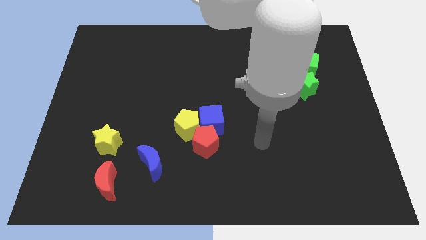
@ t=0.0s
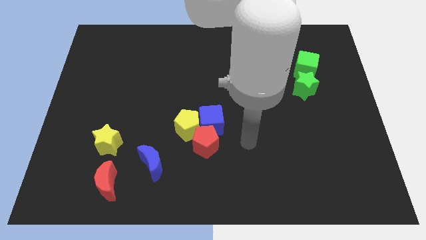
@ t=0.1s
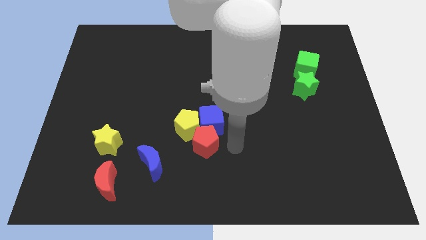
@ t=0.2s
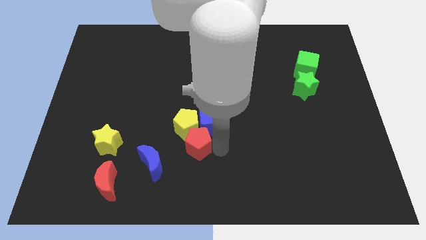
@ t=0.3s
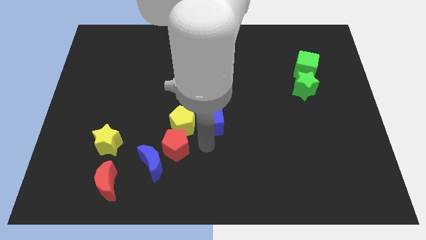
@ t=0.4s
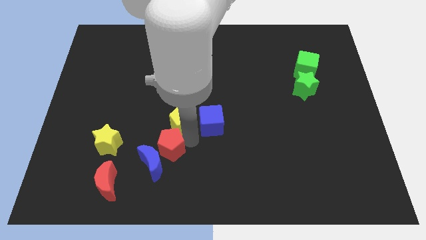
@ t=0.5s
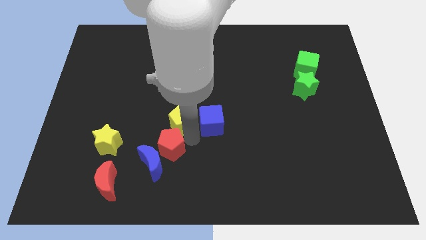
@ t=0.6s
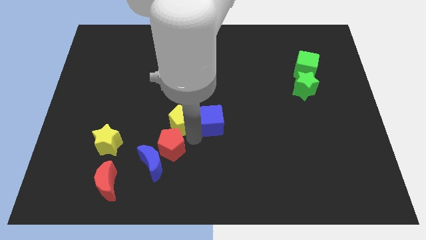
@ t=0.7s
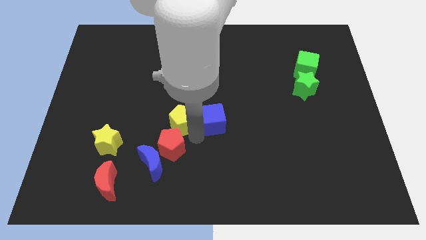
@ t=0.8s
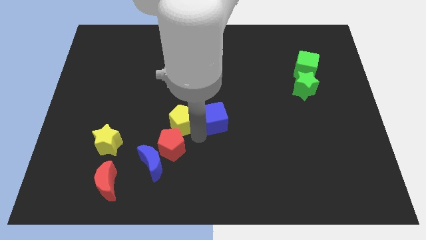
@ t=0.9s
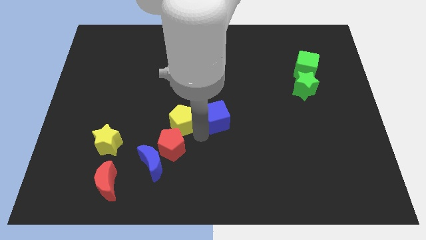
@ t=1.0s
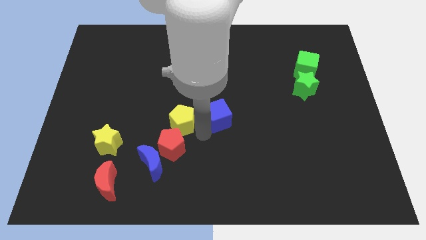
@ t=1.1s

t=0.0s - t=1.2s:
separate the blue cube from the yellow pentagon and red pentagon

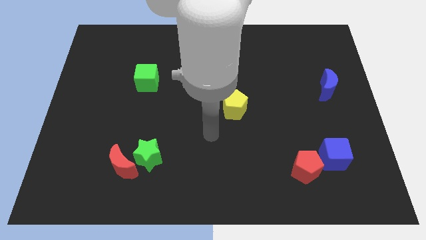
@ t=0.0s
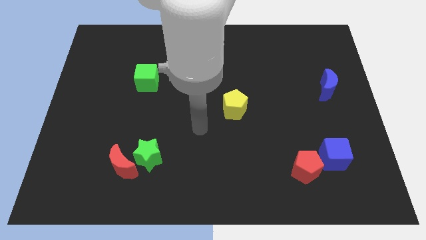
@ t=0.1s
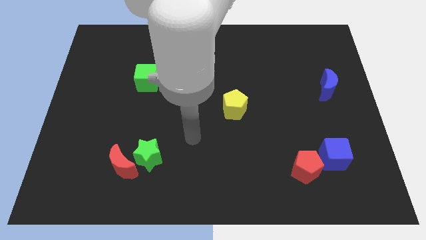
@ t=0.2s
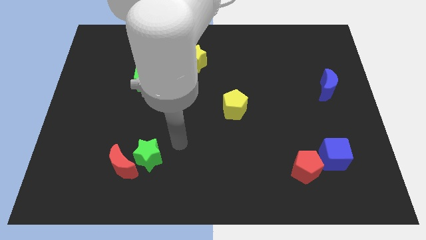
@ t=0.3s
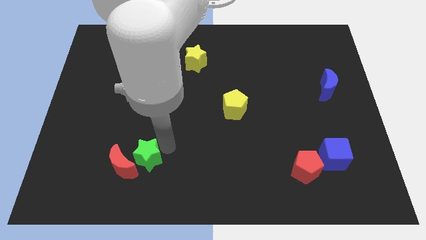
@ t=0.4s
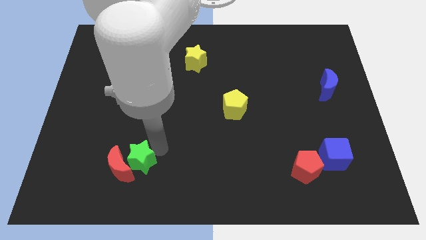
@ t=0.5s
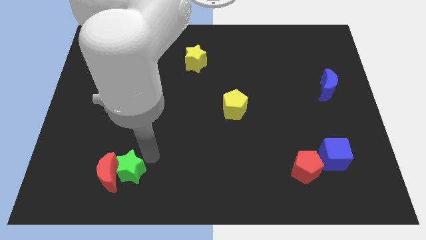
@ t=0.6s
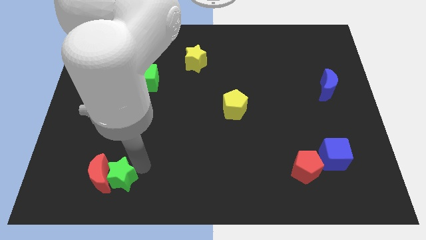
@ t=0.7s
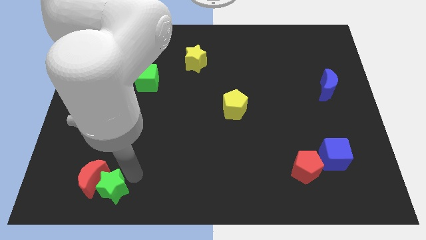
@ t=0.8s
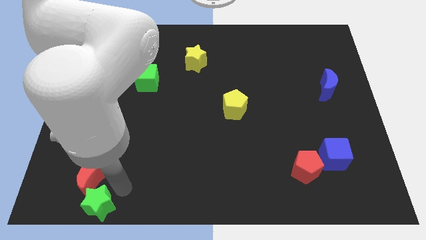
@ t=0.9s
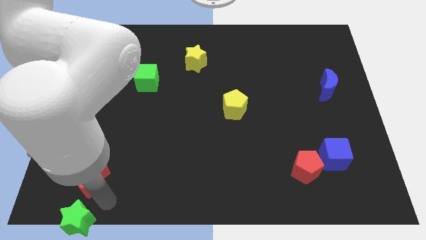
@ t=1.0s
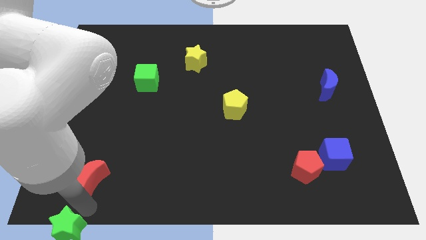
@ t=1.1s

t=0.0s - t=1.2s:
move the red moon away from the green star

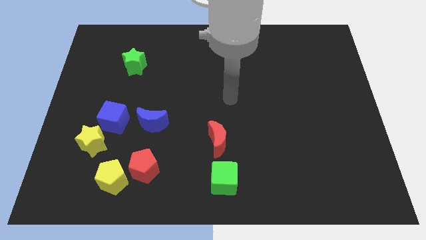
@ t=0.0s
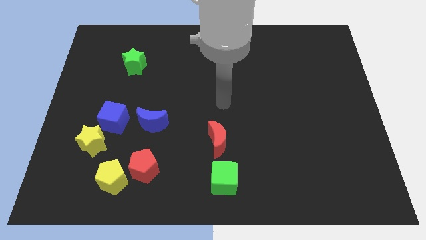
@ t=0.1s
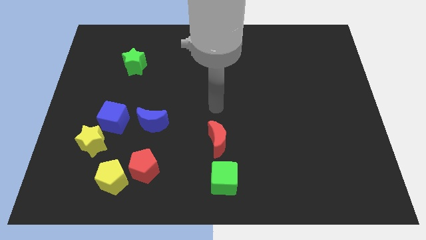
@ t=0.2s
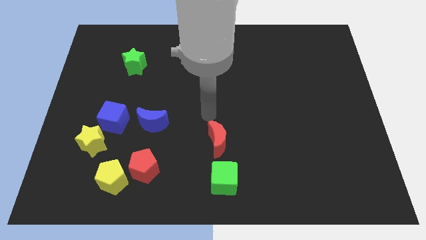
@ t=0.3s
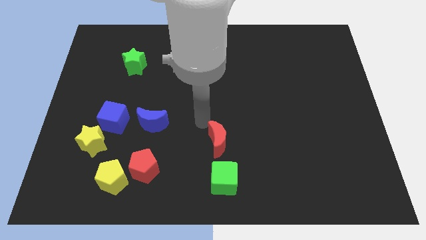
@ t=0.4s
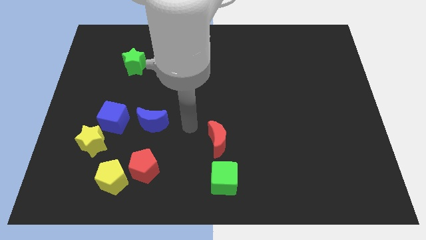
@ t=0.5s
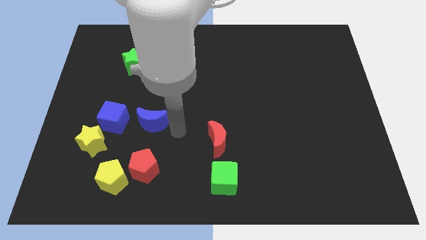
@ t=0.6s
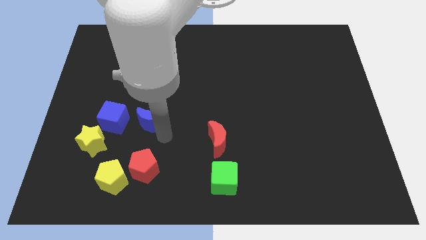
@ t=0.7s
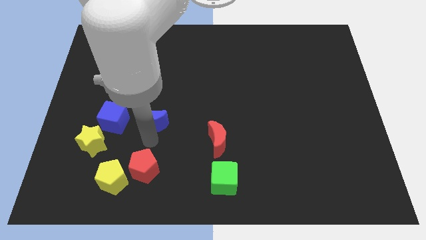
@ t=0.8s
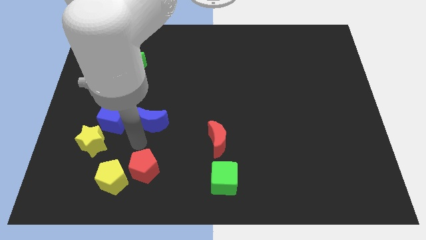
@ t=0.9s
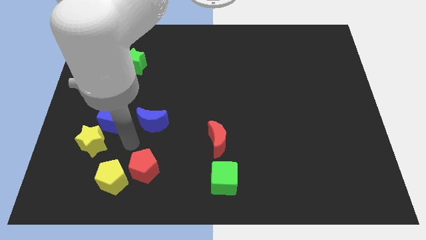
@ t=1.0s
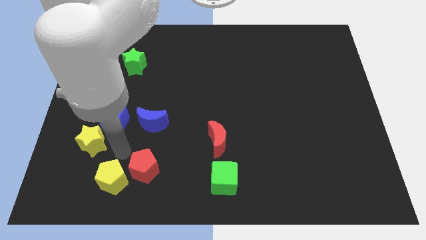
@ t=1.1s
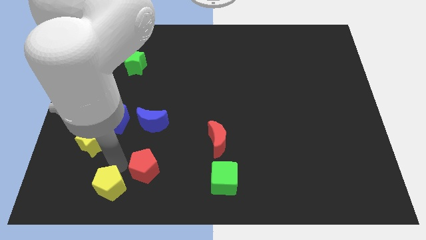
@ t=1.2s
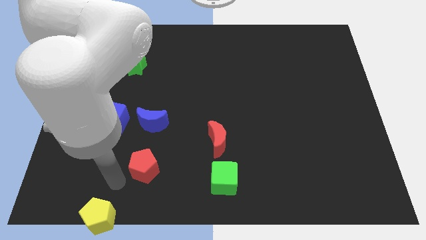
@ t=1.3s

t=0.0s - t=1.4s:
pull the red pentagon apart from the yellow pentagon

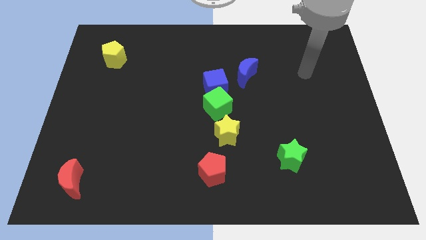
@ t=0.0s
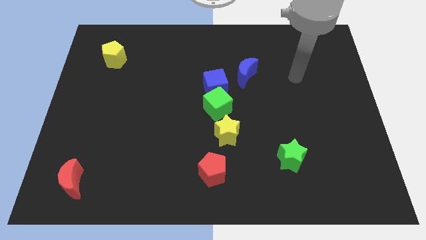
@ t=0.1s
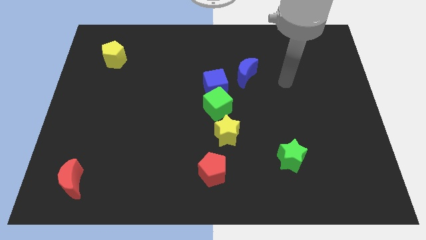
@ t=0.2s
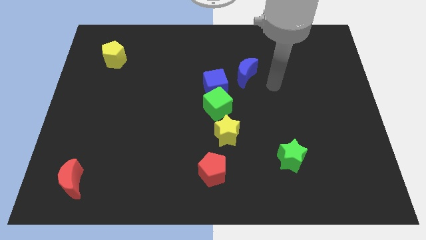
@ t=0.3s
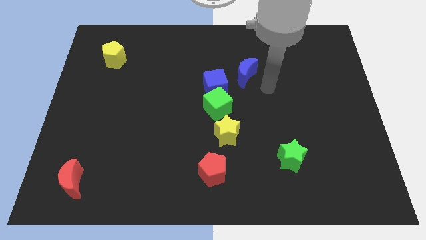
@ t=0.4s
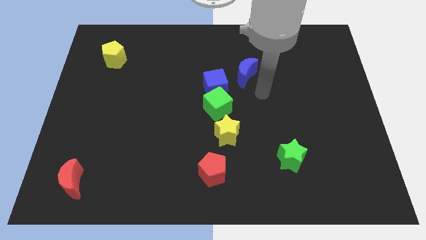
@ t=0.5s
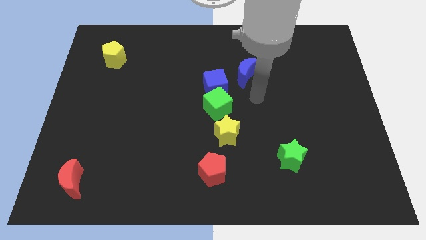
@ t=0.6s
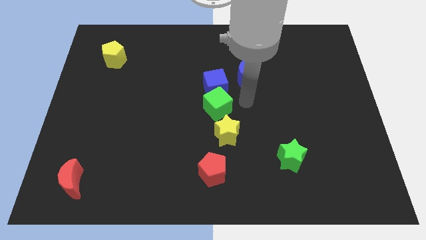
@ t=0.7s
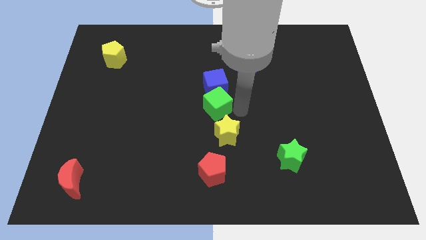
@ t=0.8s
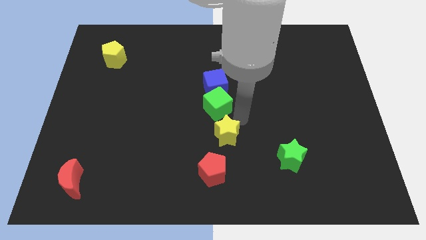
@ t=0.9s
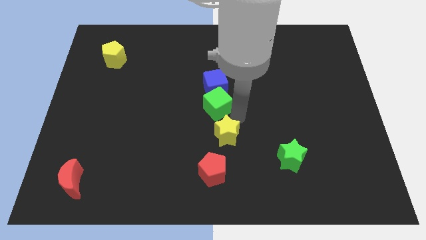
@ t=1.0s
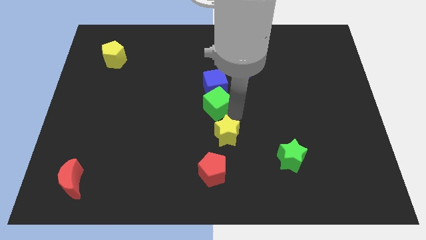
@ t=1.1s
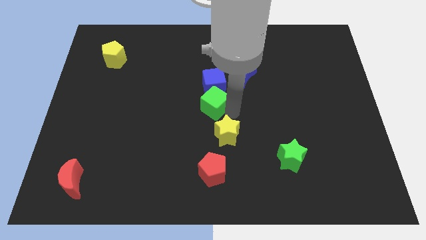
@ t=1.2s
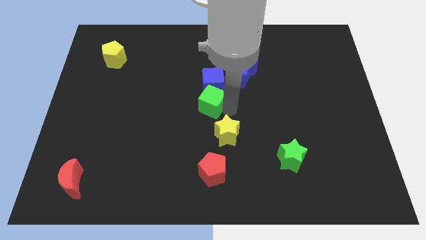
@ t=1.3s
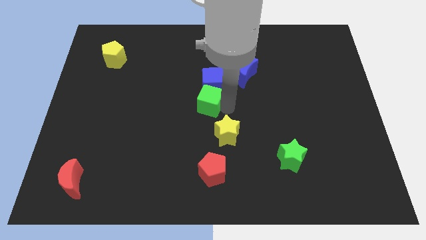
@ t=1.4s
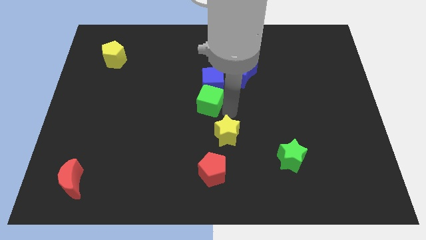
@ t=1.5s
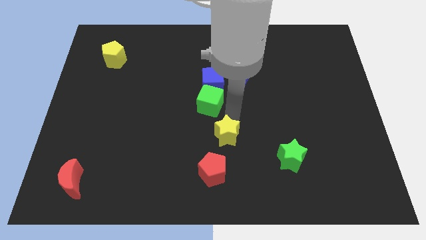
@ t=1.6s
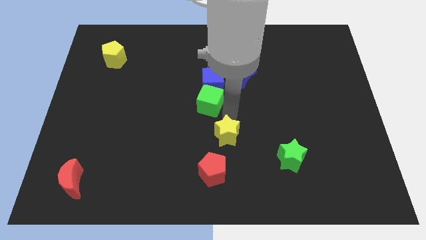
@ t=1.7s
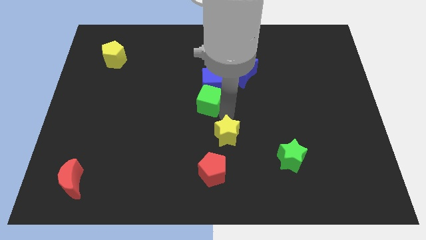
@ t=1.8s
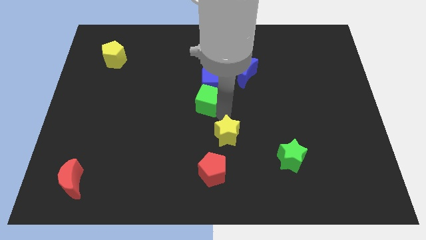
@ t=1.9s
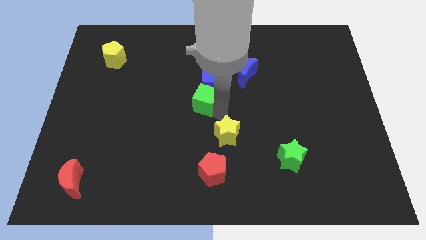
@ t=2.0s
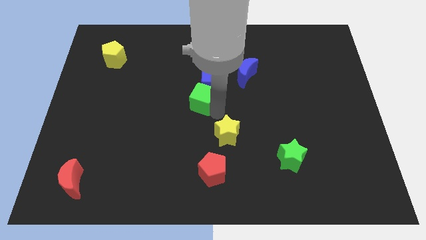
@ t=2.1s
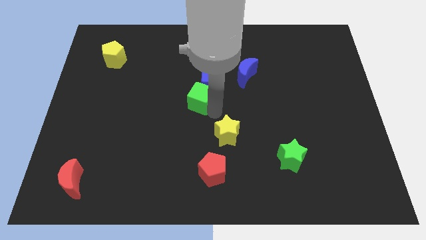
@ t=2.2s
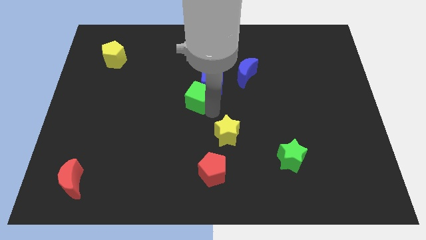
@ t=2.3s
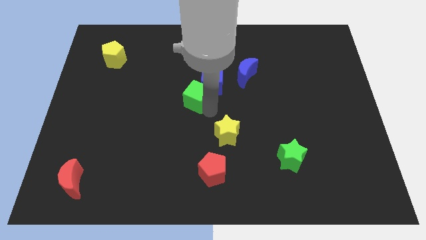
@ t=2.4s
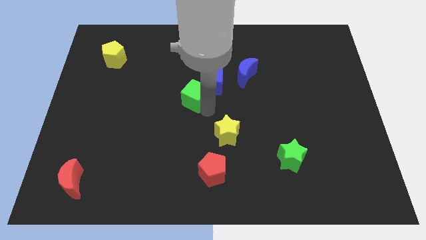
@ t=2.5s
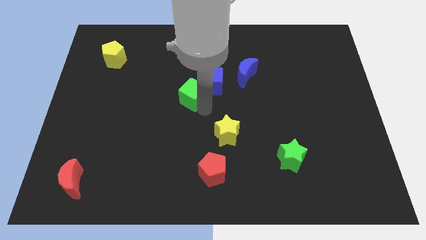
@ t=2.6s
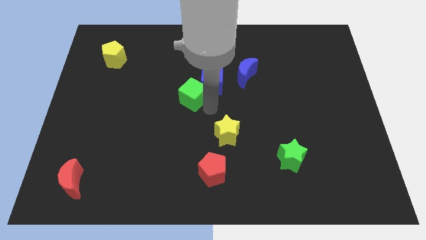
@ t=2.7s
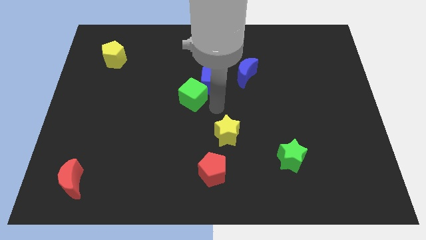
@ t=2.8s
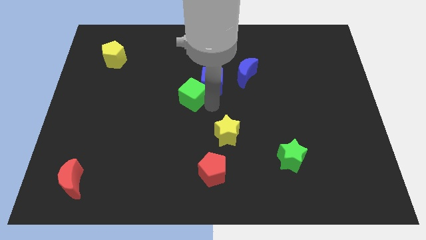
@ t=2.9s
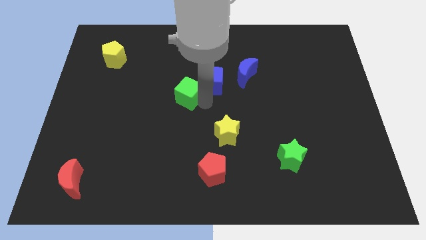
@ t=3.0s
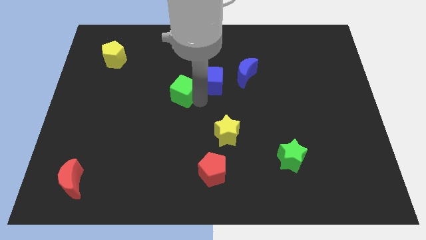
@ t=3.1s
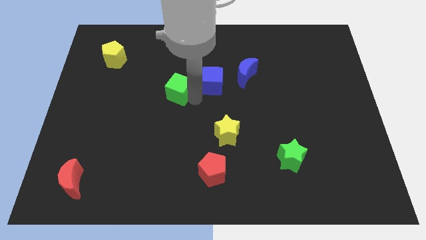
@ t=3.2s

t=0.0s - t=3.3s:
separate the green cube from the blue cube and yellow star

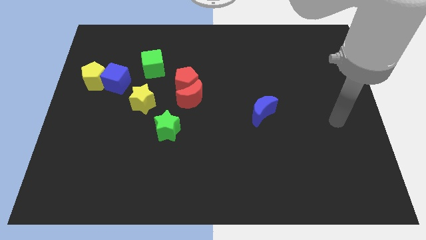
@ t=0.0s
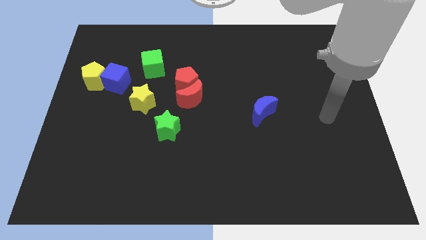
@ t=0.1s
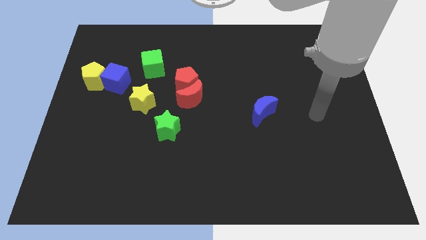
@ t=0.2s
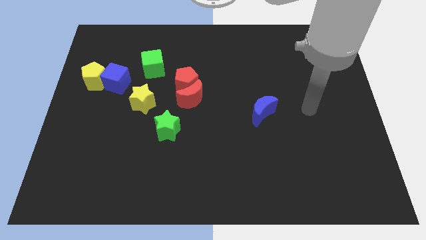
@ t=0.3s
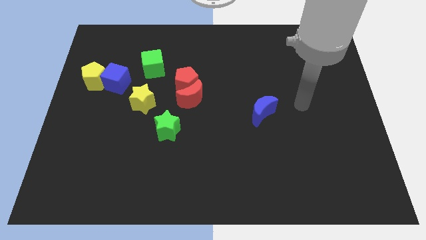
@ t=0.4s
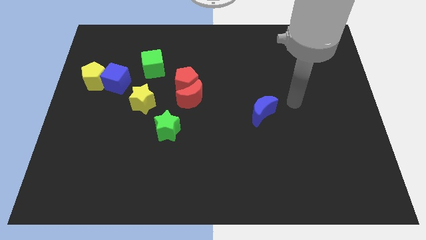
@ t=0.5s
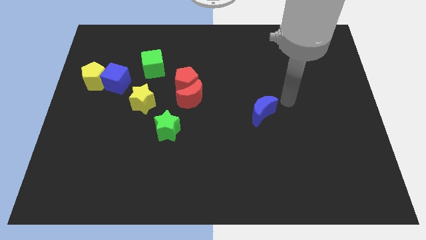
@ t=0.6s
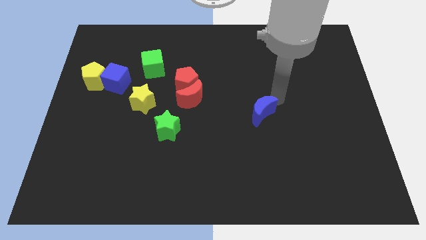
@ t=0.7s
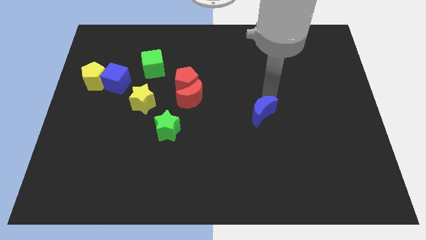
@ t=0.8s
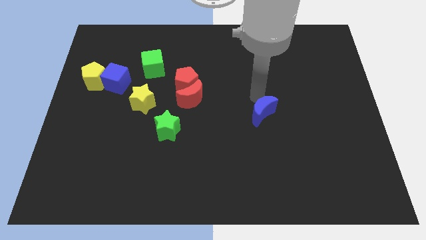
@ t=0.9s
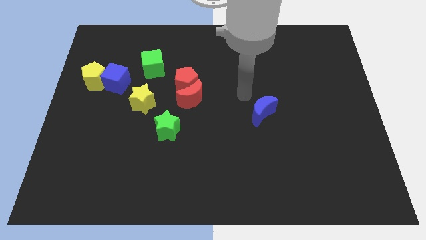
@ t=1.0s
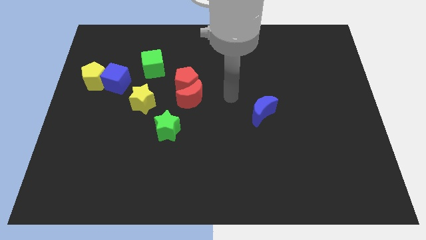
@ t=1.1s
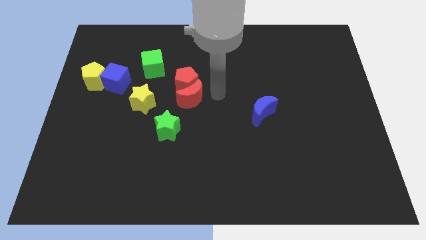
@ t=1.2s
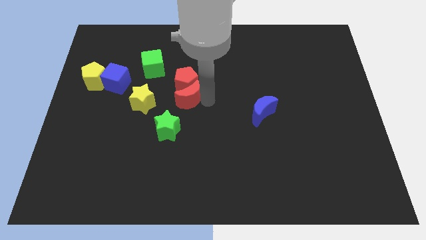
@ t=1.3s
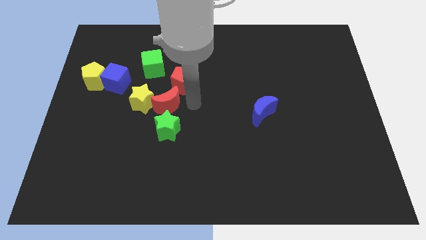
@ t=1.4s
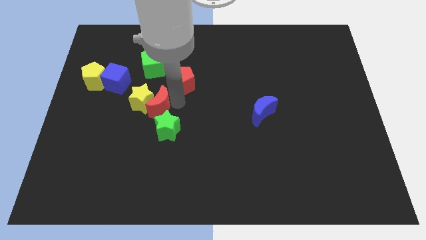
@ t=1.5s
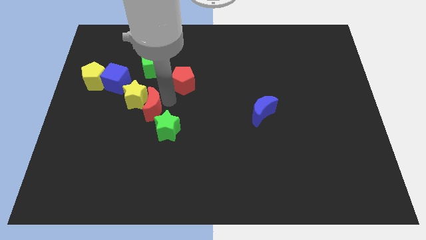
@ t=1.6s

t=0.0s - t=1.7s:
pull the red pentagon apart from the red moon

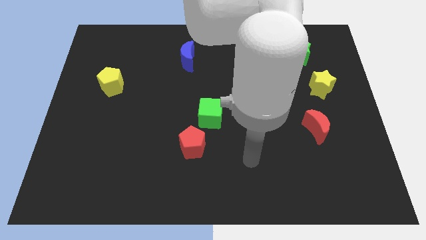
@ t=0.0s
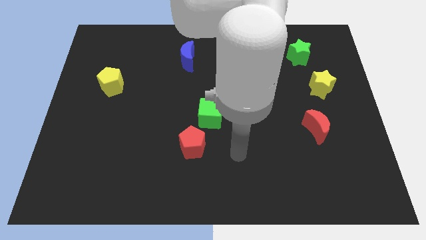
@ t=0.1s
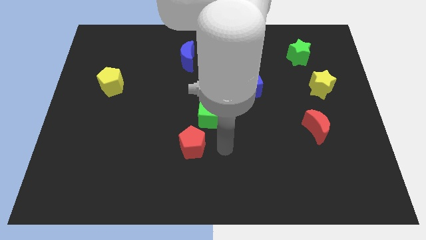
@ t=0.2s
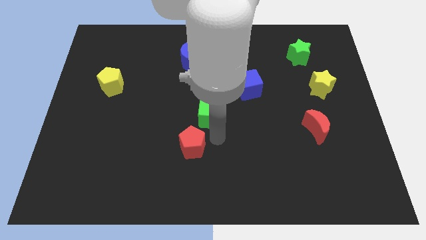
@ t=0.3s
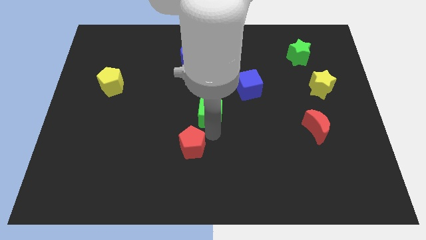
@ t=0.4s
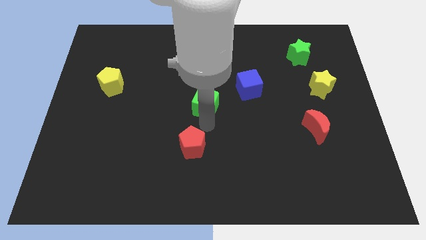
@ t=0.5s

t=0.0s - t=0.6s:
separate the red pentagon from the green cube

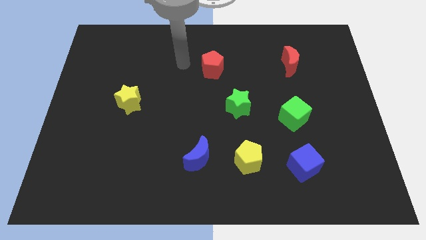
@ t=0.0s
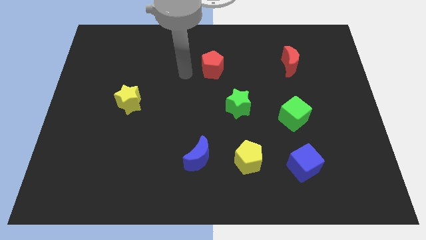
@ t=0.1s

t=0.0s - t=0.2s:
move the blue moon away from the yellow pentagon
